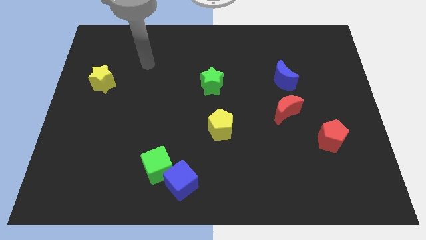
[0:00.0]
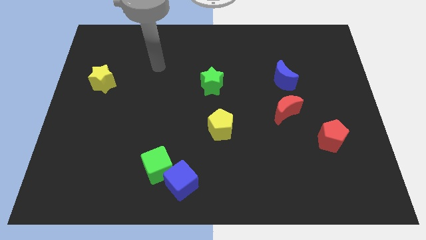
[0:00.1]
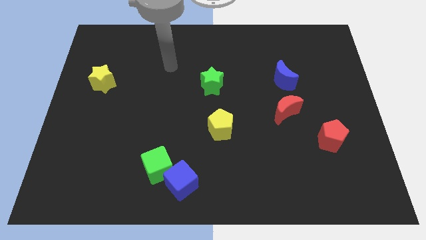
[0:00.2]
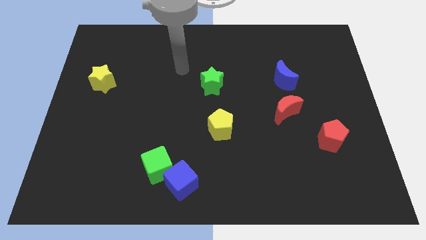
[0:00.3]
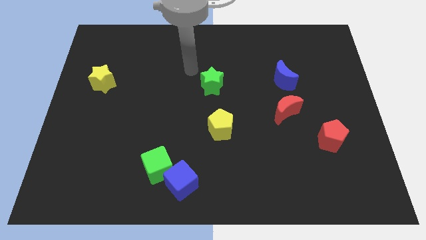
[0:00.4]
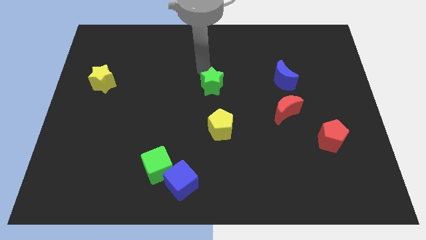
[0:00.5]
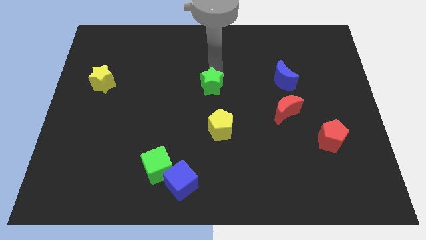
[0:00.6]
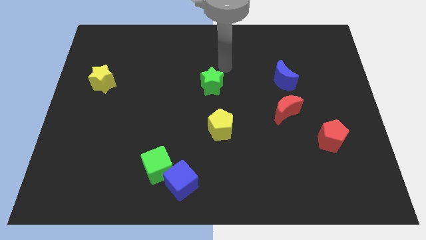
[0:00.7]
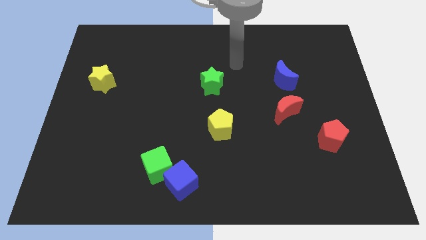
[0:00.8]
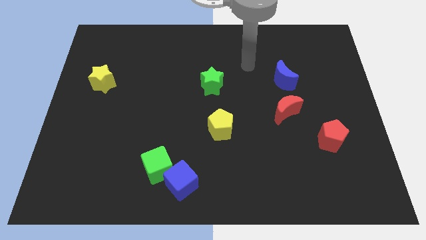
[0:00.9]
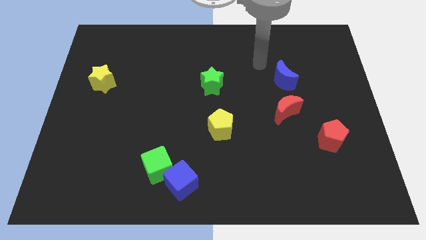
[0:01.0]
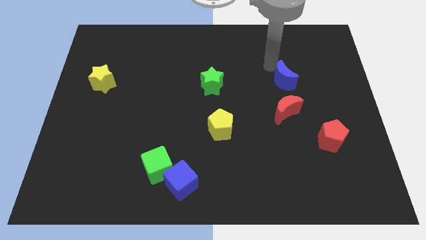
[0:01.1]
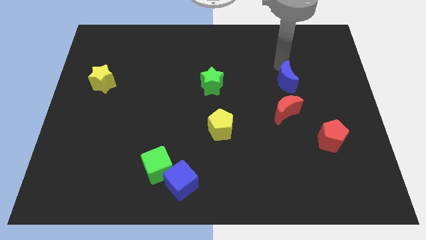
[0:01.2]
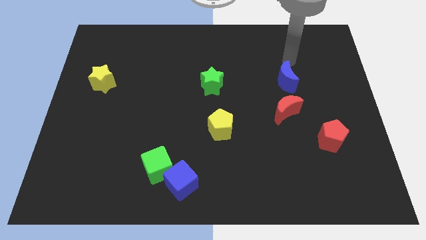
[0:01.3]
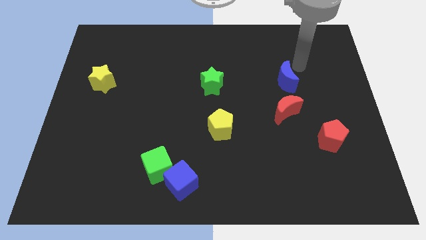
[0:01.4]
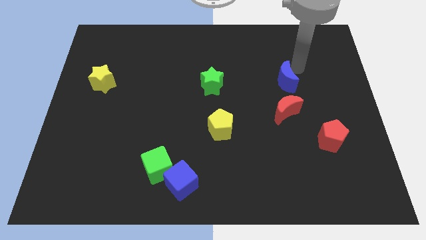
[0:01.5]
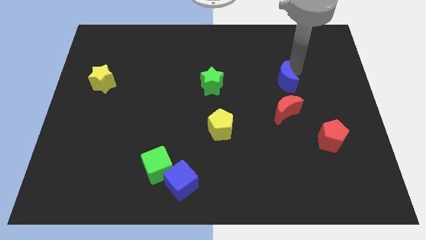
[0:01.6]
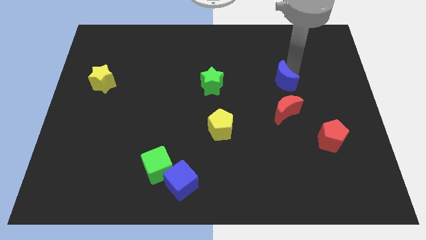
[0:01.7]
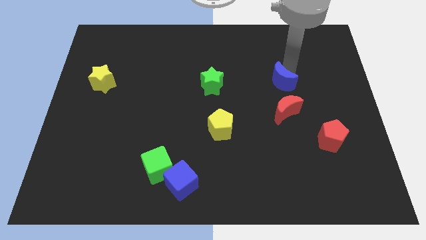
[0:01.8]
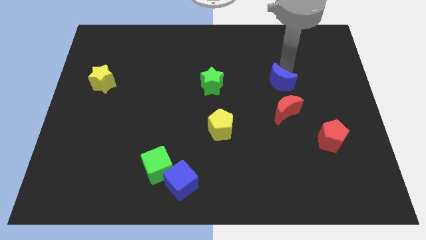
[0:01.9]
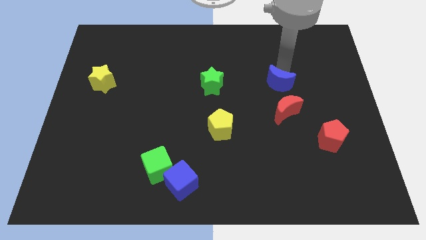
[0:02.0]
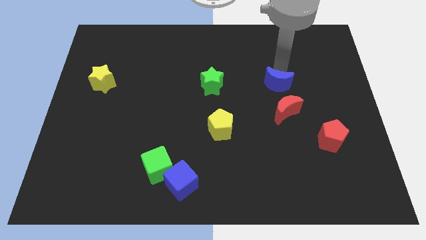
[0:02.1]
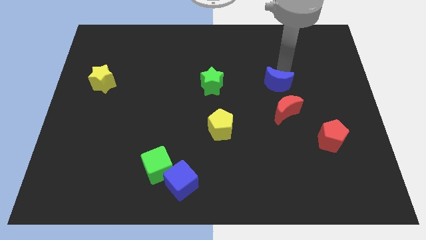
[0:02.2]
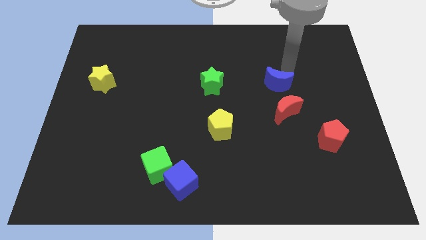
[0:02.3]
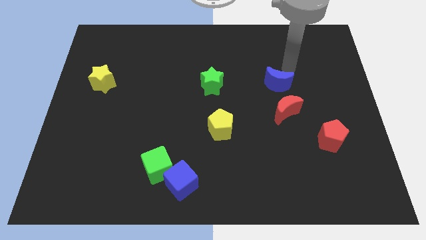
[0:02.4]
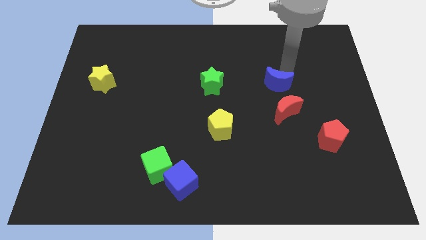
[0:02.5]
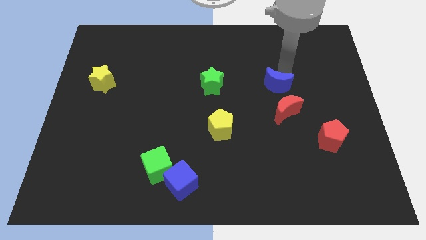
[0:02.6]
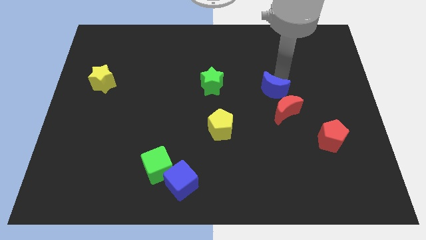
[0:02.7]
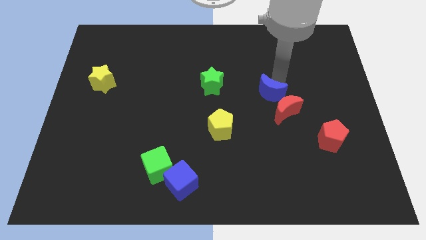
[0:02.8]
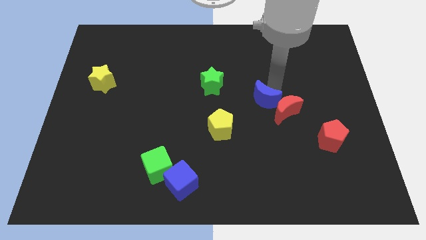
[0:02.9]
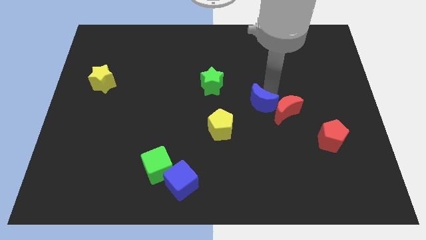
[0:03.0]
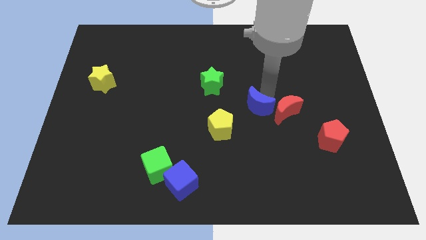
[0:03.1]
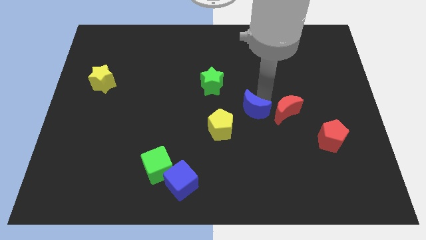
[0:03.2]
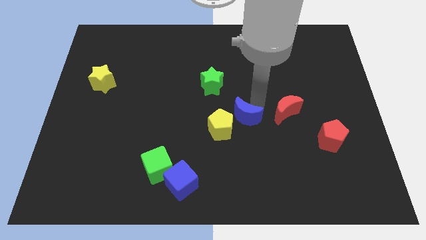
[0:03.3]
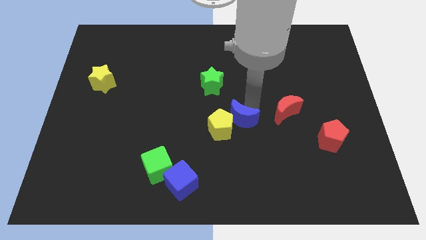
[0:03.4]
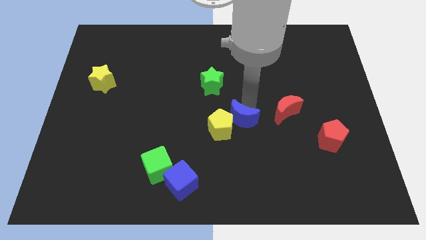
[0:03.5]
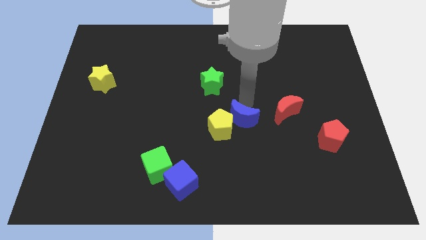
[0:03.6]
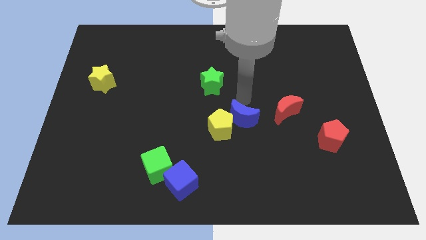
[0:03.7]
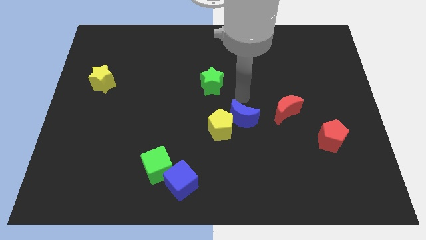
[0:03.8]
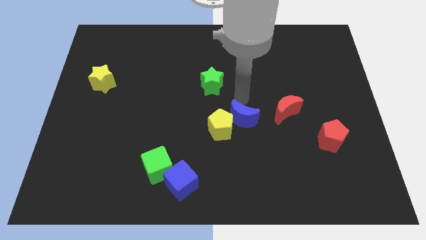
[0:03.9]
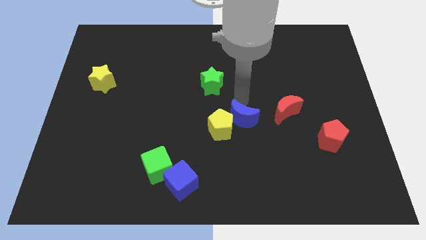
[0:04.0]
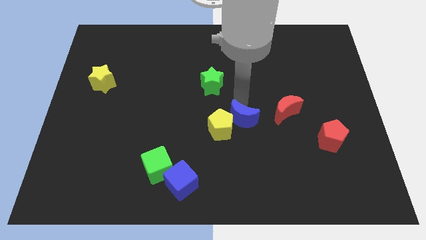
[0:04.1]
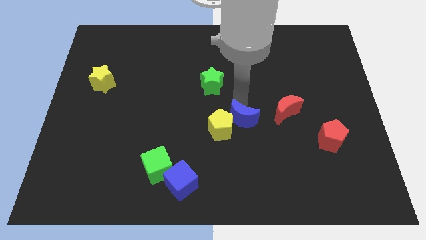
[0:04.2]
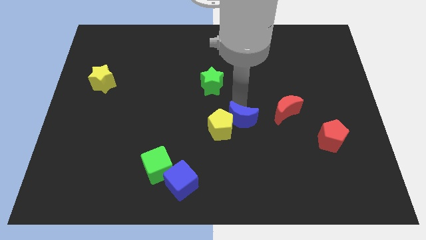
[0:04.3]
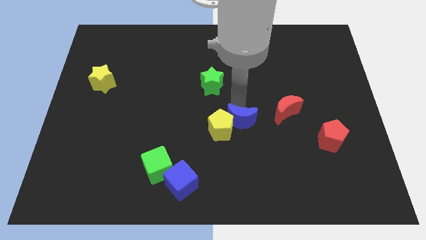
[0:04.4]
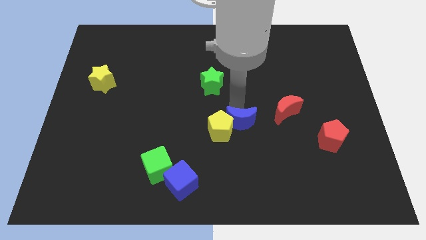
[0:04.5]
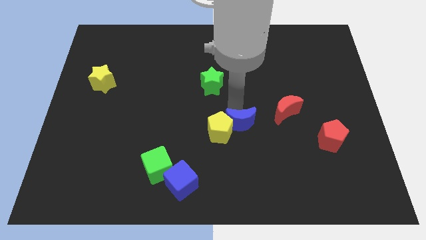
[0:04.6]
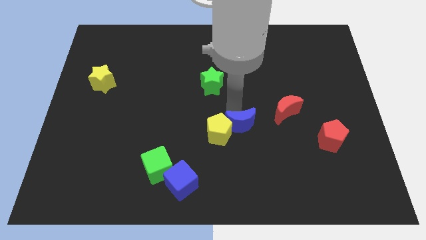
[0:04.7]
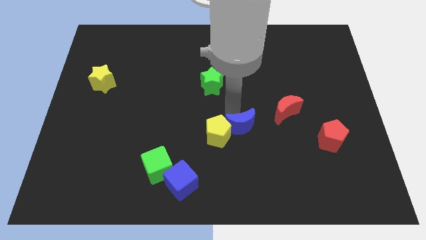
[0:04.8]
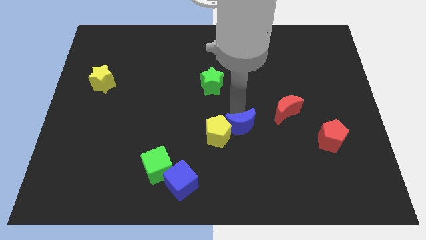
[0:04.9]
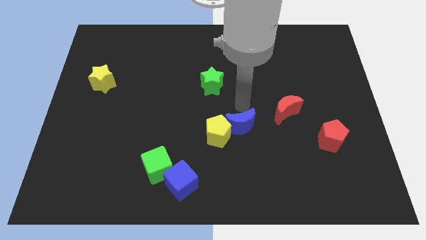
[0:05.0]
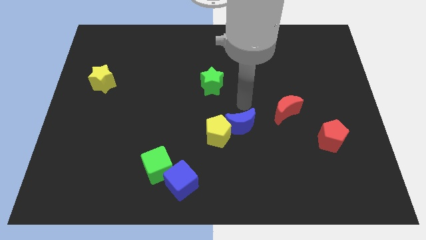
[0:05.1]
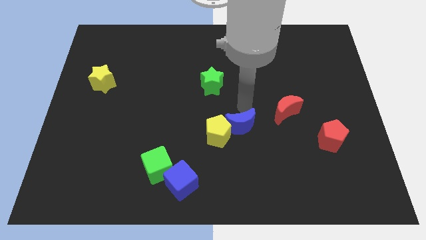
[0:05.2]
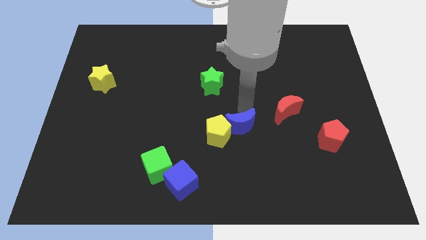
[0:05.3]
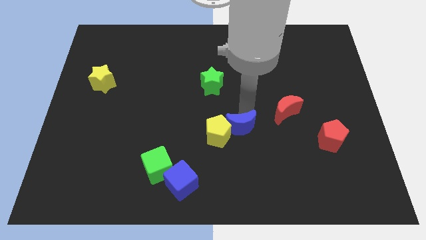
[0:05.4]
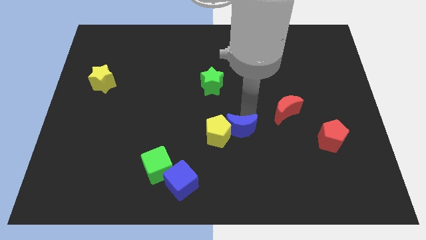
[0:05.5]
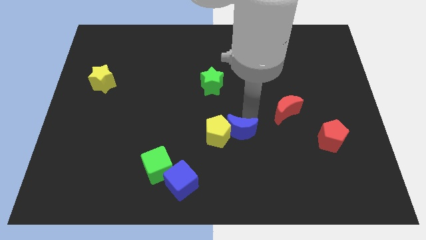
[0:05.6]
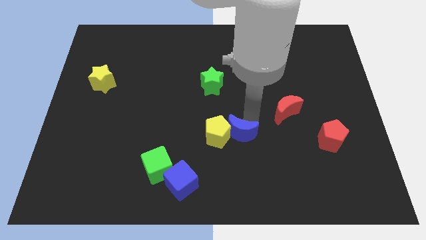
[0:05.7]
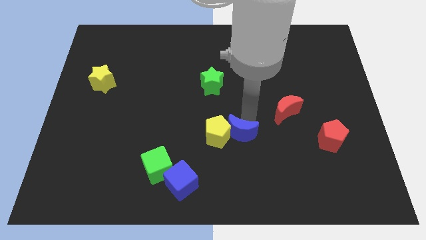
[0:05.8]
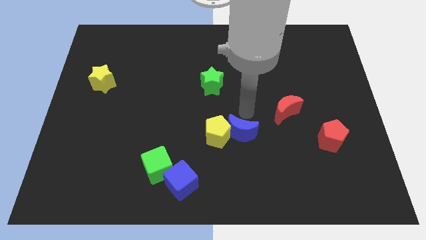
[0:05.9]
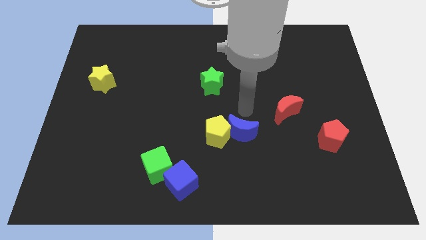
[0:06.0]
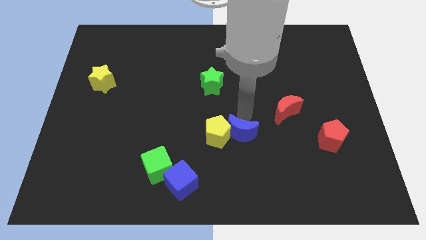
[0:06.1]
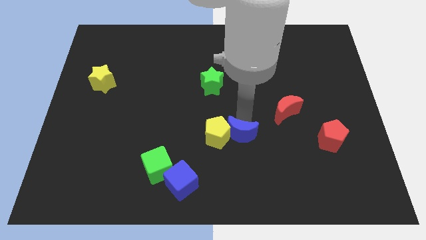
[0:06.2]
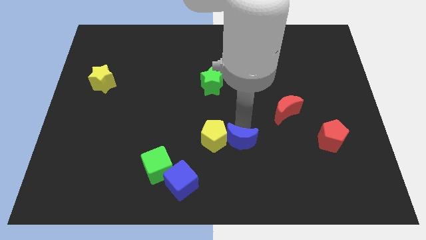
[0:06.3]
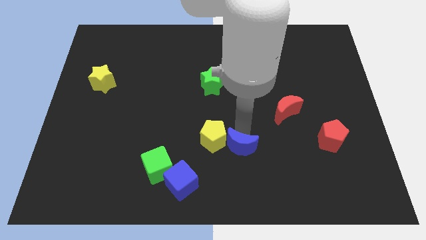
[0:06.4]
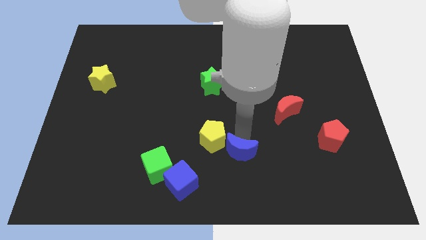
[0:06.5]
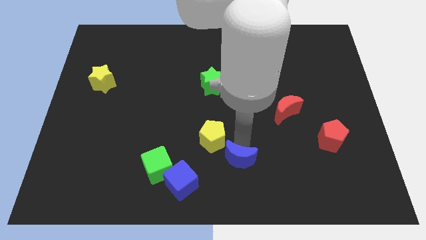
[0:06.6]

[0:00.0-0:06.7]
move the blue moon to the bottom
